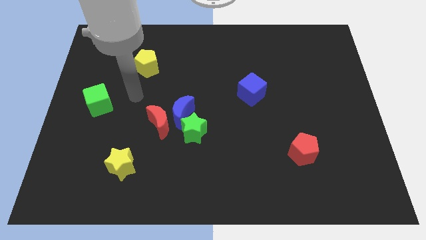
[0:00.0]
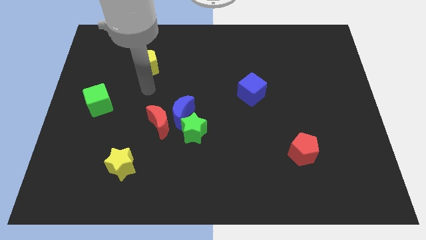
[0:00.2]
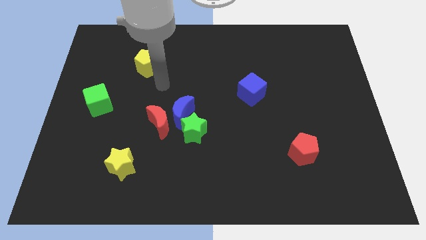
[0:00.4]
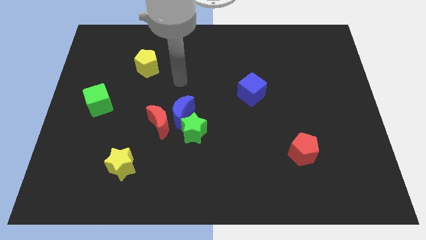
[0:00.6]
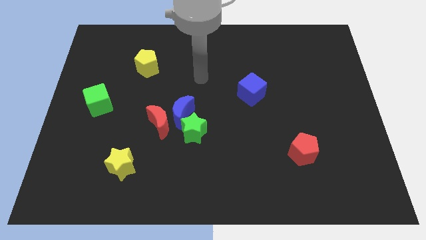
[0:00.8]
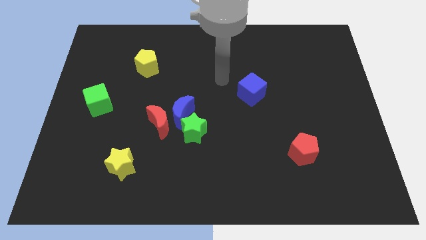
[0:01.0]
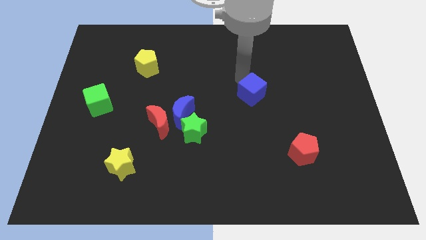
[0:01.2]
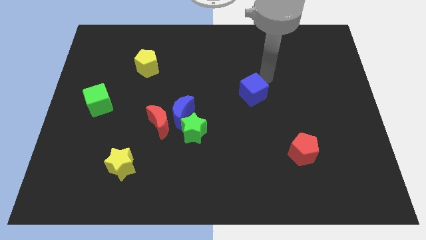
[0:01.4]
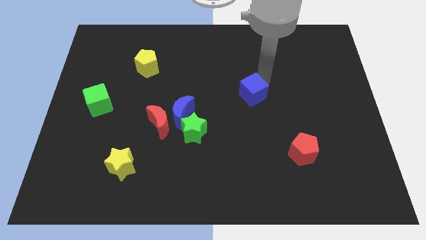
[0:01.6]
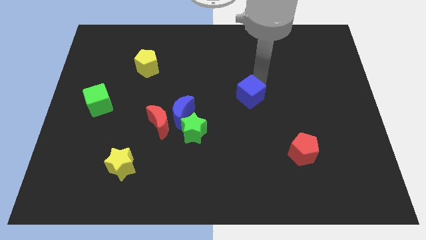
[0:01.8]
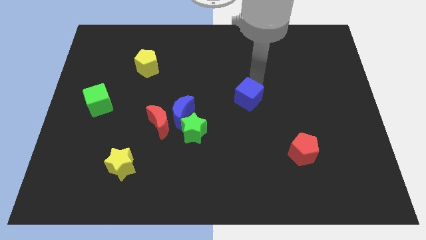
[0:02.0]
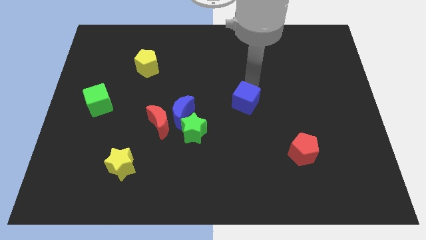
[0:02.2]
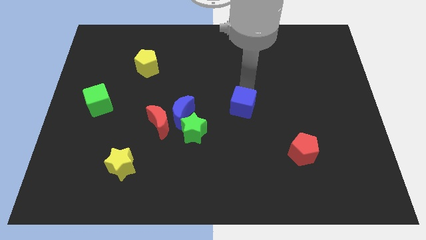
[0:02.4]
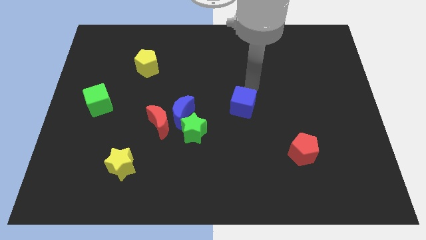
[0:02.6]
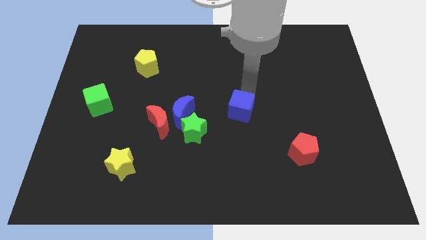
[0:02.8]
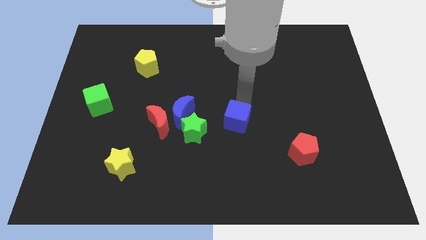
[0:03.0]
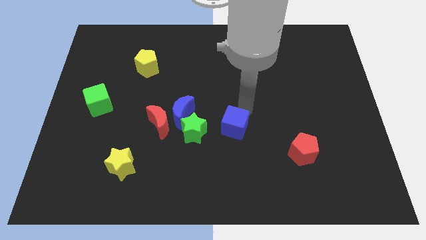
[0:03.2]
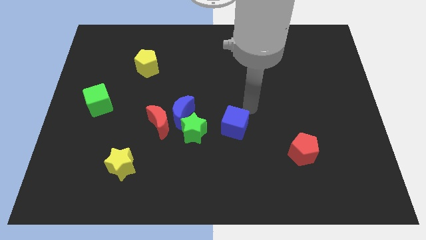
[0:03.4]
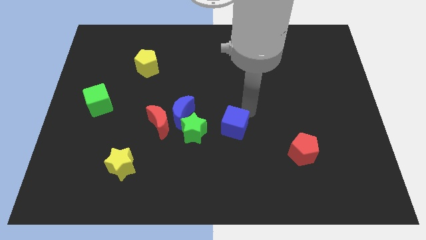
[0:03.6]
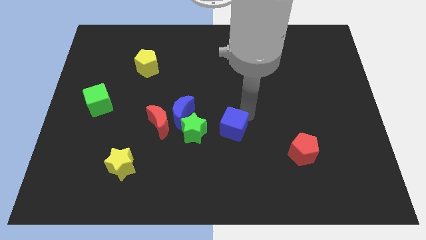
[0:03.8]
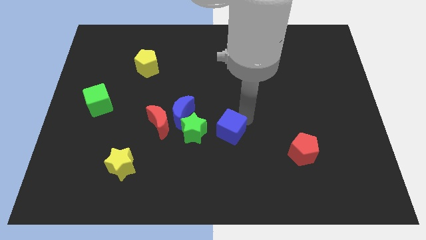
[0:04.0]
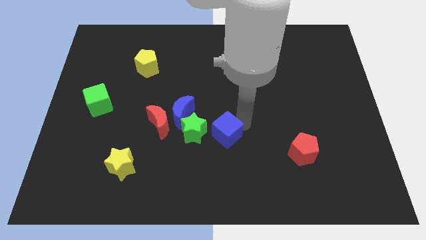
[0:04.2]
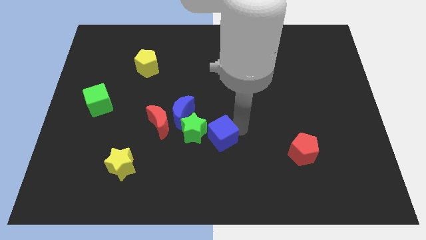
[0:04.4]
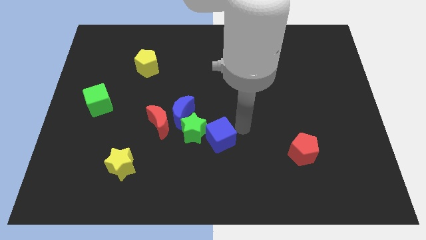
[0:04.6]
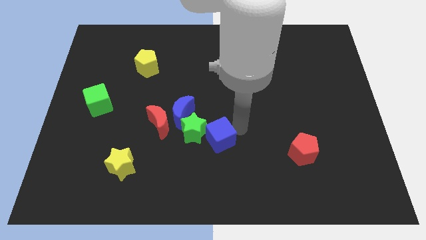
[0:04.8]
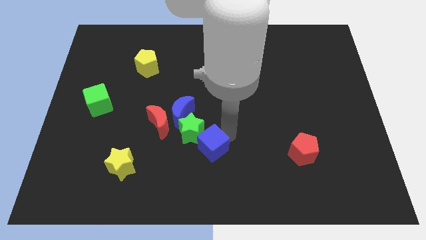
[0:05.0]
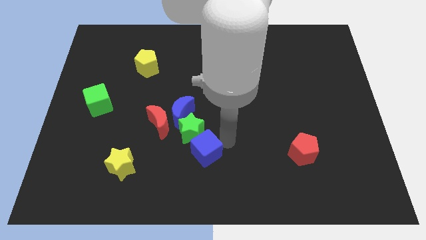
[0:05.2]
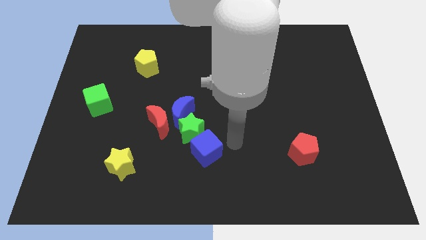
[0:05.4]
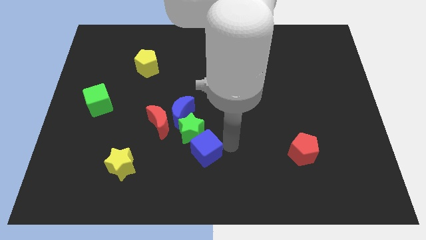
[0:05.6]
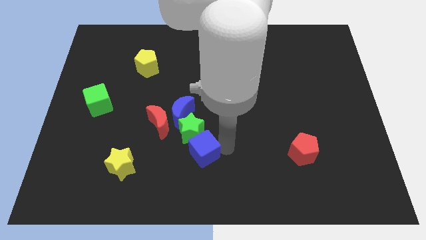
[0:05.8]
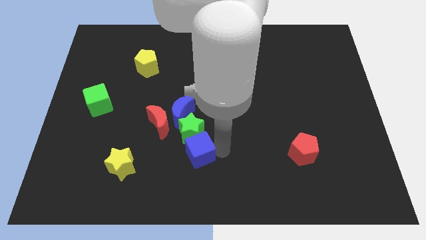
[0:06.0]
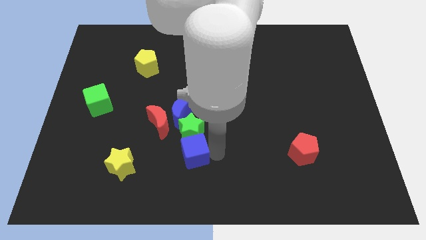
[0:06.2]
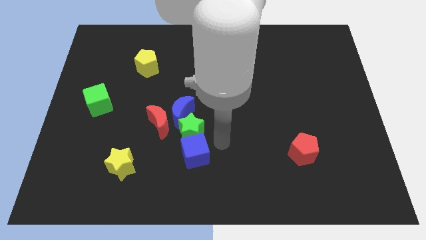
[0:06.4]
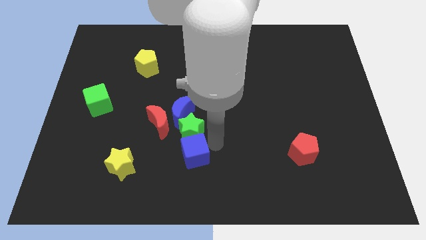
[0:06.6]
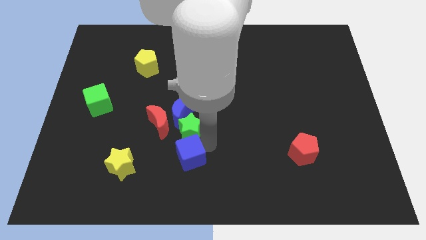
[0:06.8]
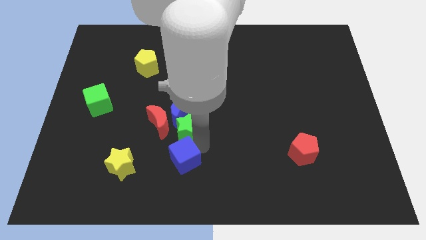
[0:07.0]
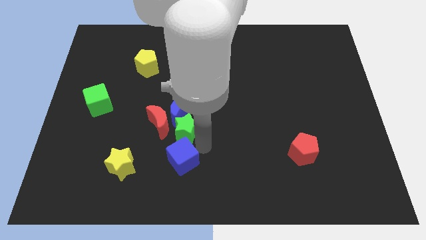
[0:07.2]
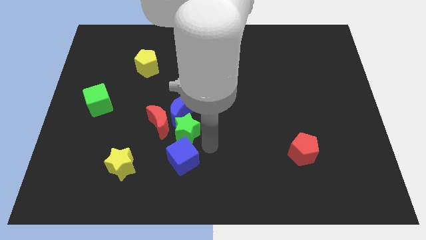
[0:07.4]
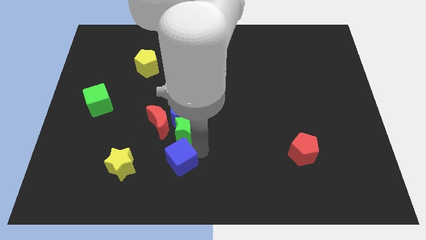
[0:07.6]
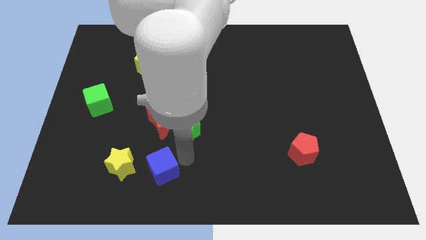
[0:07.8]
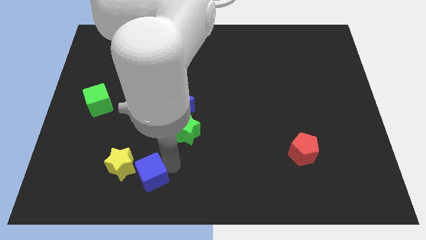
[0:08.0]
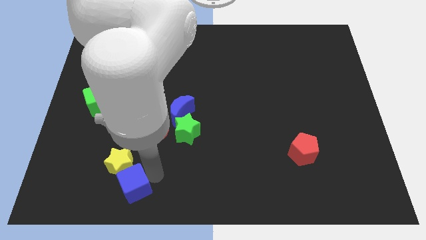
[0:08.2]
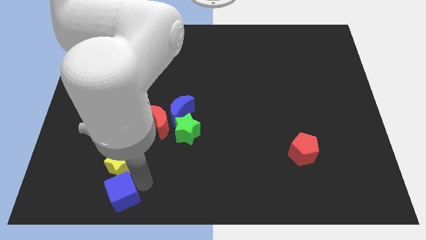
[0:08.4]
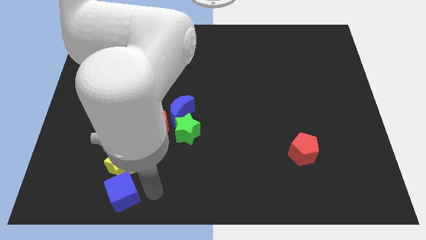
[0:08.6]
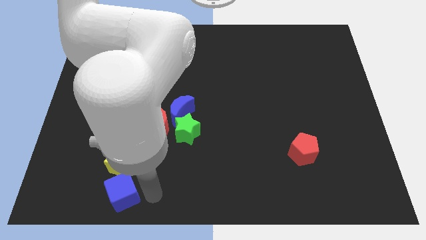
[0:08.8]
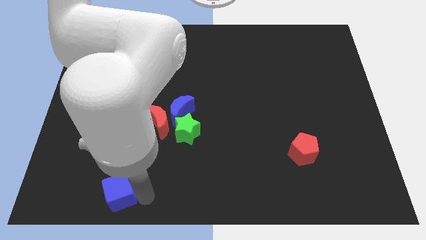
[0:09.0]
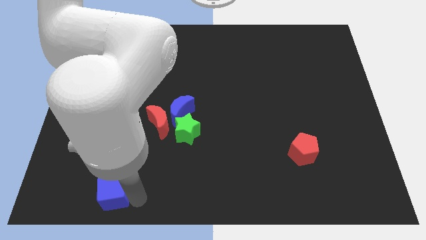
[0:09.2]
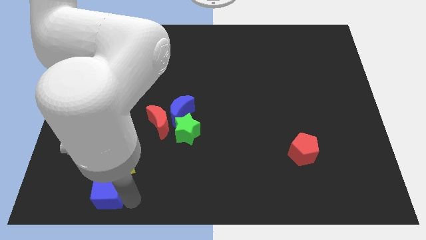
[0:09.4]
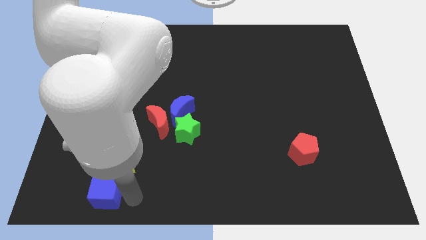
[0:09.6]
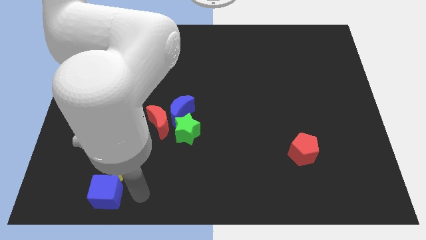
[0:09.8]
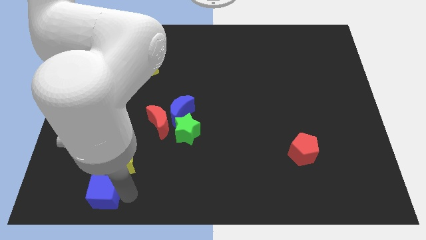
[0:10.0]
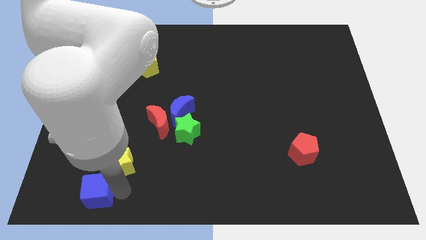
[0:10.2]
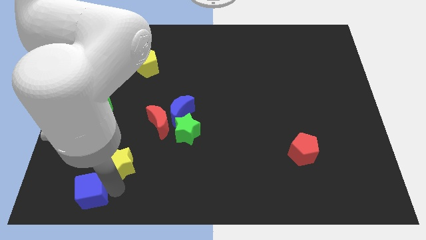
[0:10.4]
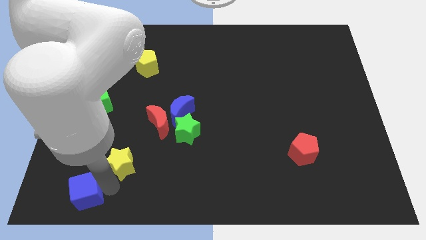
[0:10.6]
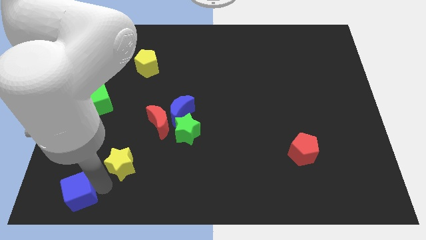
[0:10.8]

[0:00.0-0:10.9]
move the blue cube to the bottom left

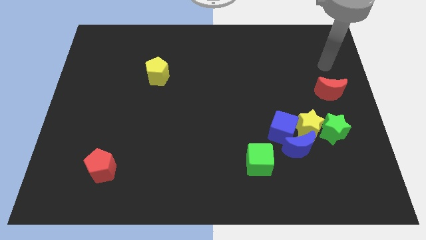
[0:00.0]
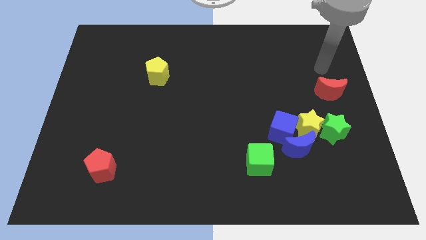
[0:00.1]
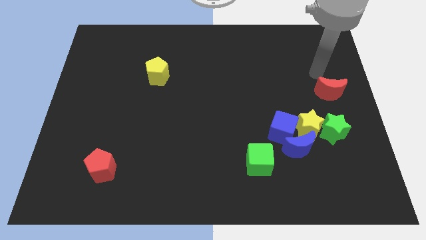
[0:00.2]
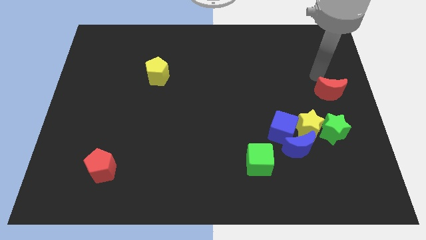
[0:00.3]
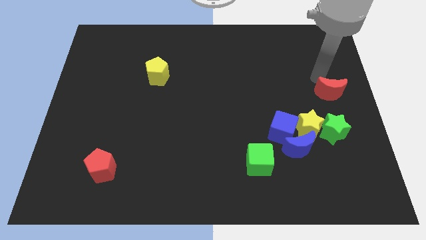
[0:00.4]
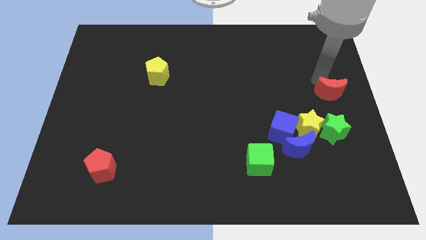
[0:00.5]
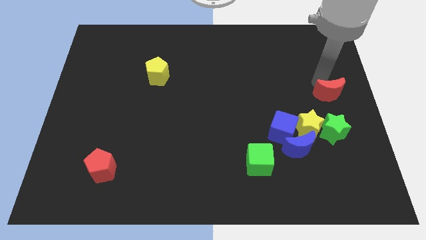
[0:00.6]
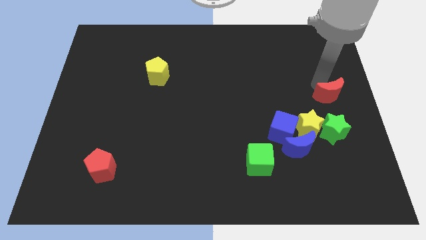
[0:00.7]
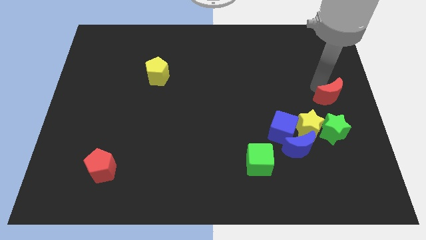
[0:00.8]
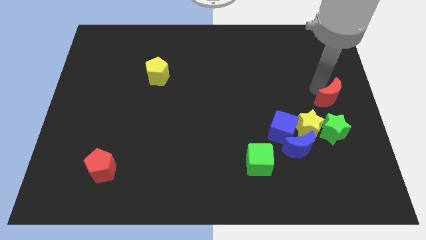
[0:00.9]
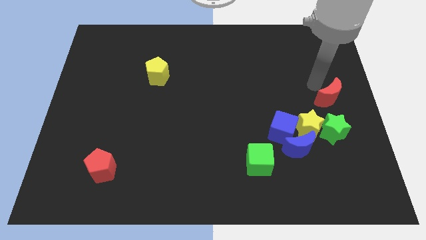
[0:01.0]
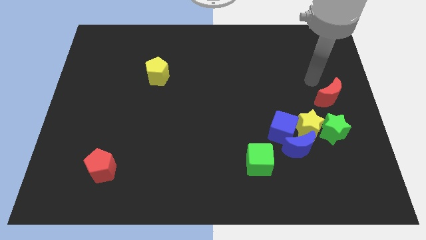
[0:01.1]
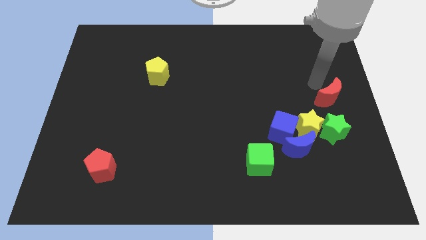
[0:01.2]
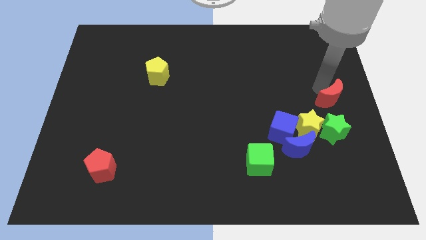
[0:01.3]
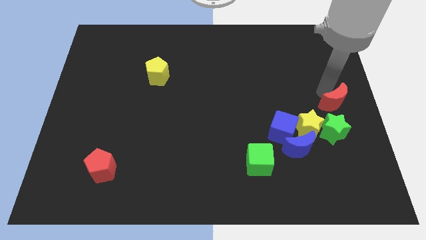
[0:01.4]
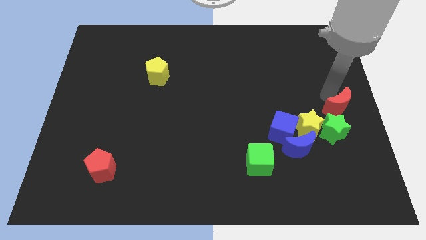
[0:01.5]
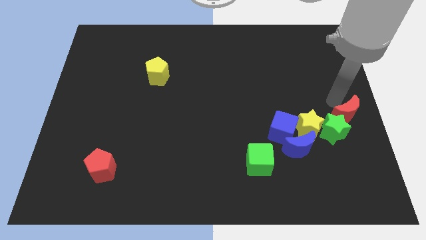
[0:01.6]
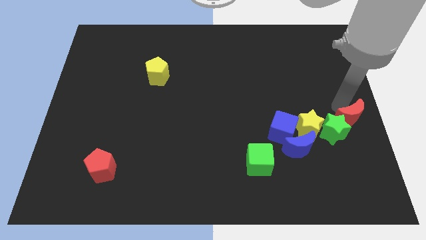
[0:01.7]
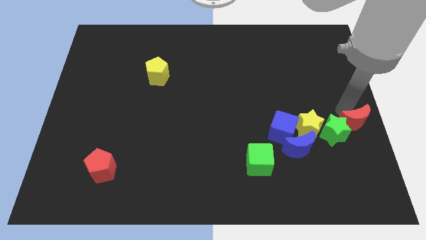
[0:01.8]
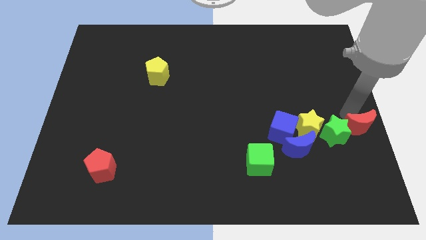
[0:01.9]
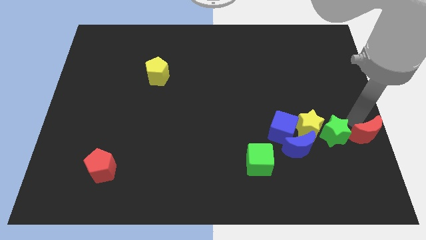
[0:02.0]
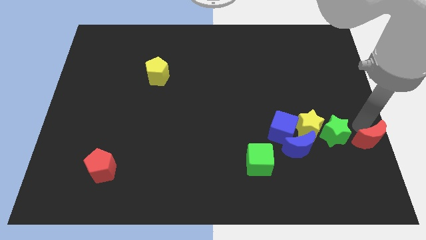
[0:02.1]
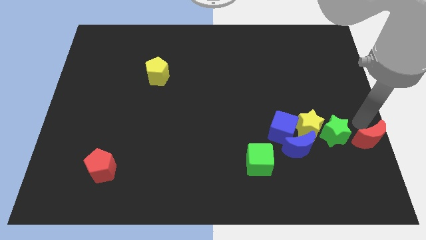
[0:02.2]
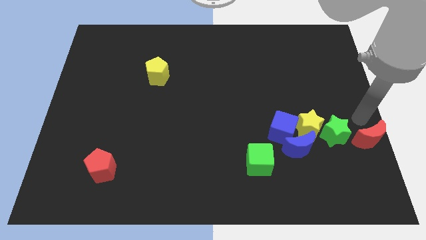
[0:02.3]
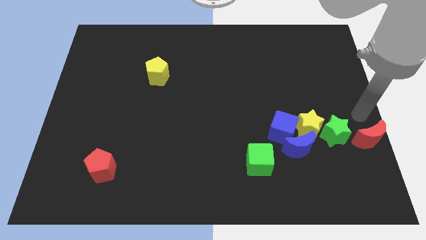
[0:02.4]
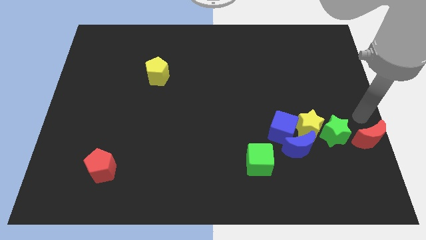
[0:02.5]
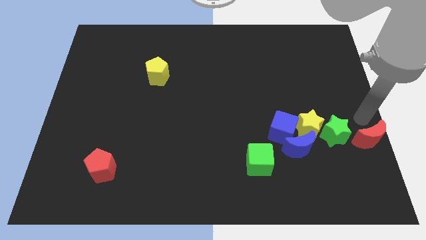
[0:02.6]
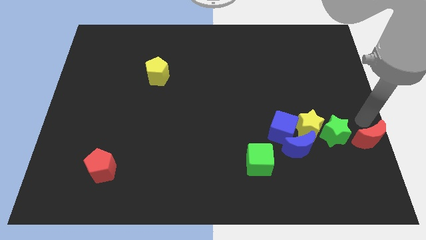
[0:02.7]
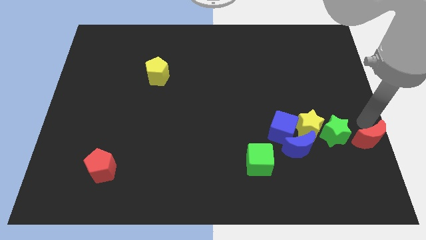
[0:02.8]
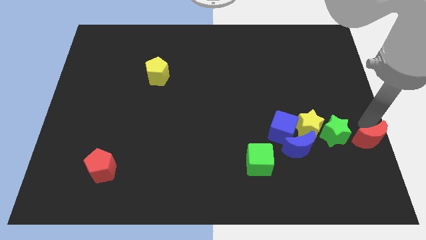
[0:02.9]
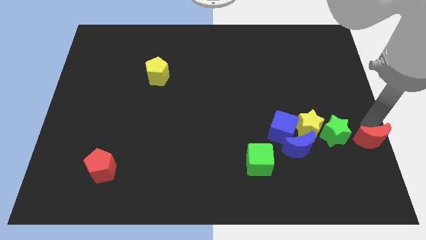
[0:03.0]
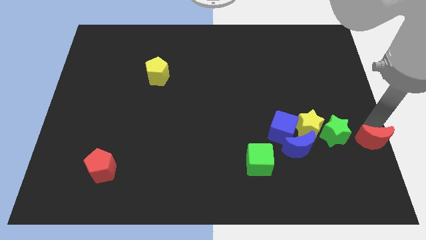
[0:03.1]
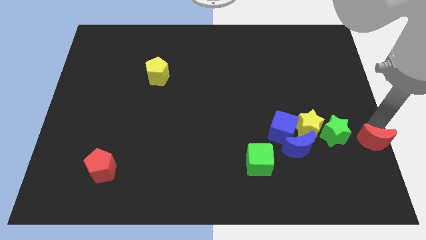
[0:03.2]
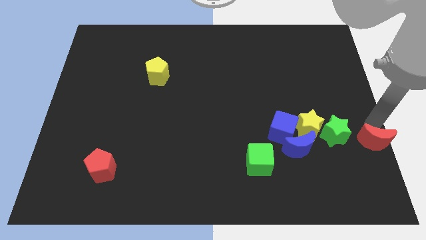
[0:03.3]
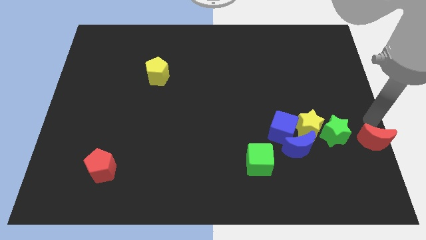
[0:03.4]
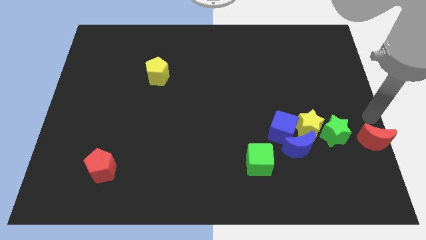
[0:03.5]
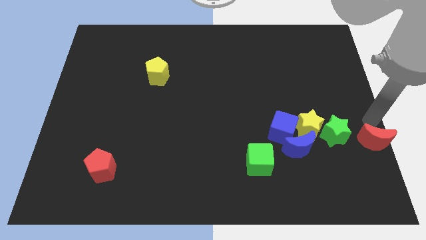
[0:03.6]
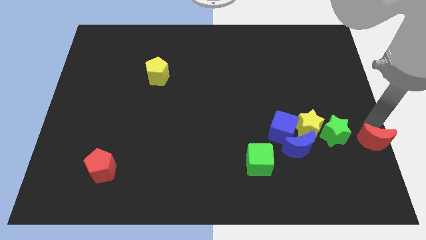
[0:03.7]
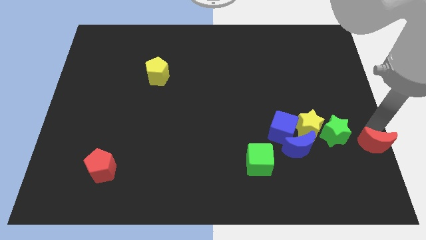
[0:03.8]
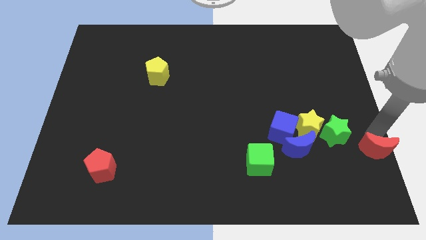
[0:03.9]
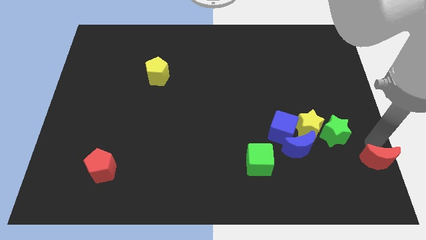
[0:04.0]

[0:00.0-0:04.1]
slide the red moon to the bottom right
